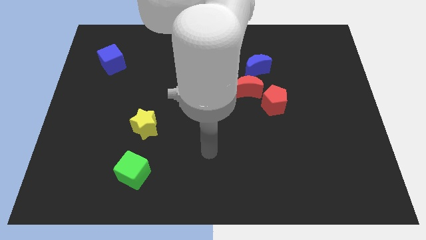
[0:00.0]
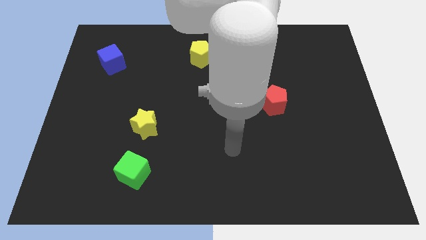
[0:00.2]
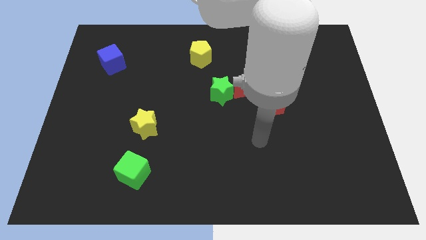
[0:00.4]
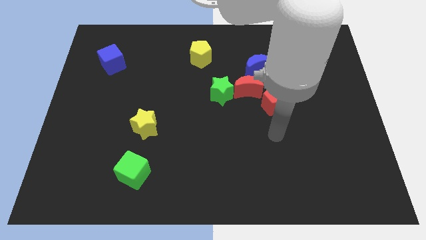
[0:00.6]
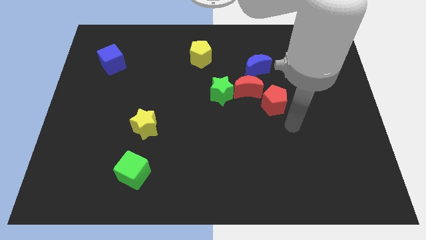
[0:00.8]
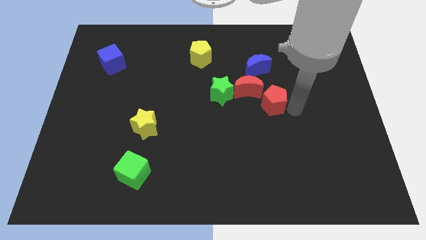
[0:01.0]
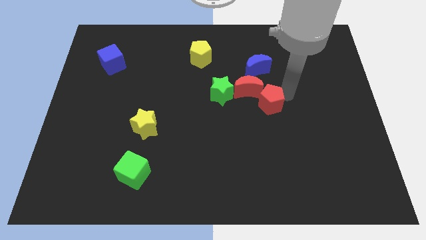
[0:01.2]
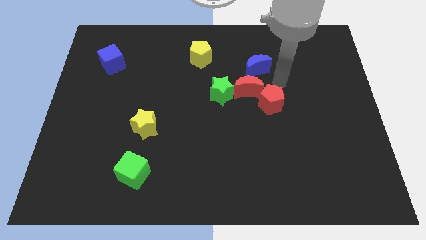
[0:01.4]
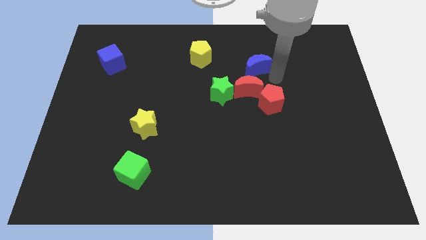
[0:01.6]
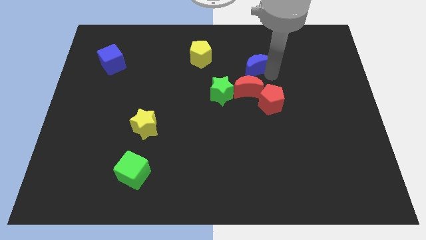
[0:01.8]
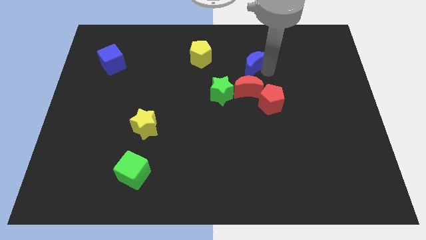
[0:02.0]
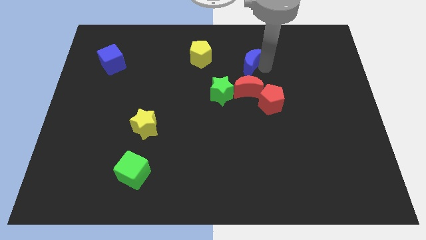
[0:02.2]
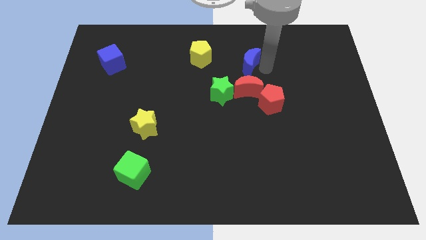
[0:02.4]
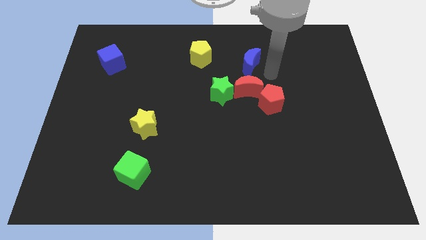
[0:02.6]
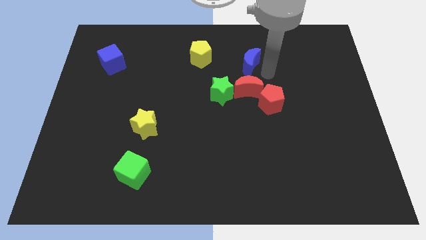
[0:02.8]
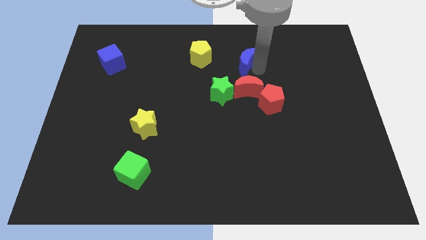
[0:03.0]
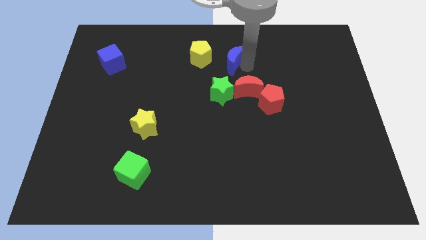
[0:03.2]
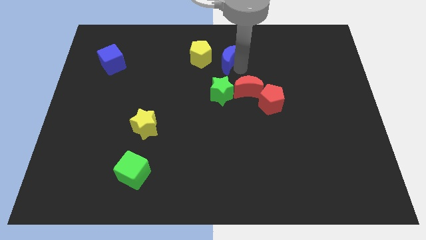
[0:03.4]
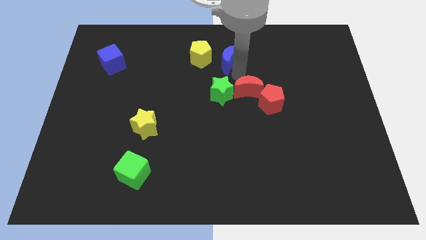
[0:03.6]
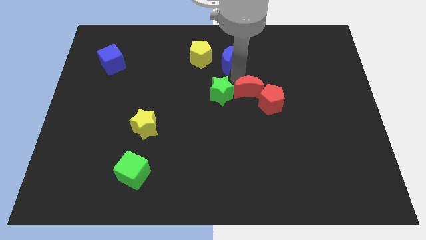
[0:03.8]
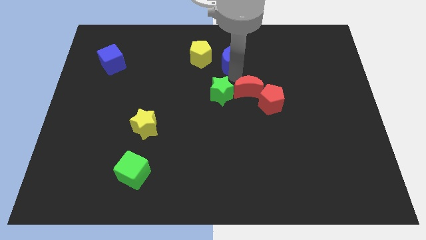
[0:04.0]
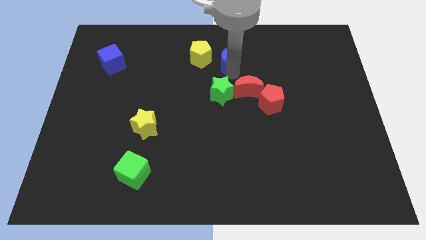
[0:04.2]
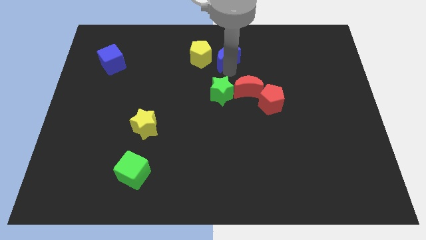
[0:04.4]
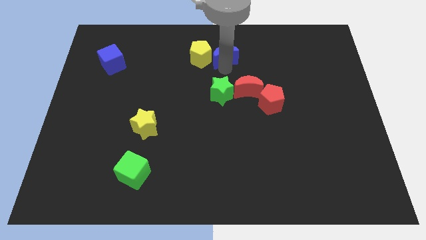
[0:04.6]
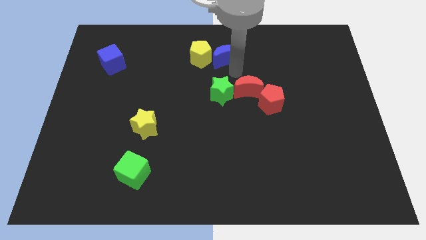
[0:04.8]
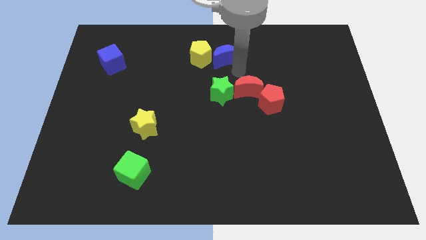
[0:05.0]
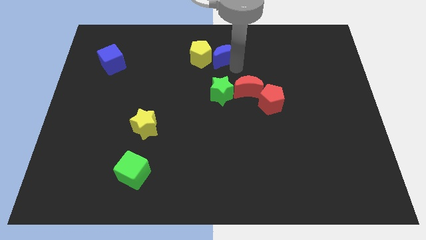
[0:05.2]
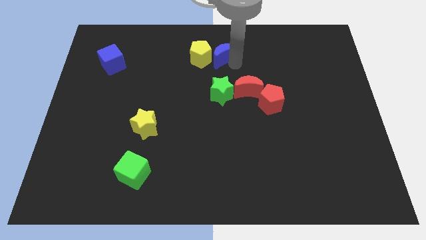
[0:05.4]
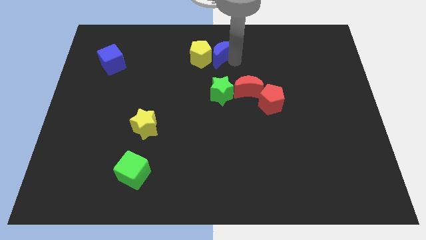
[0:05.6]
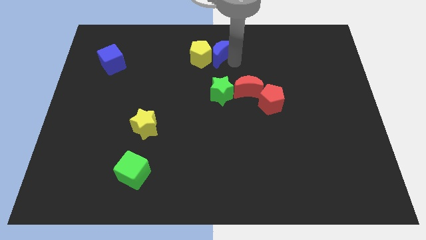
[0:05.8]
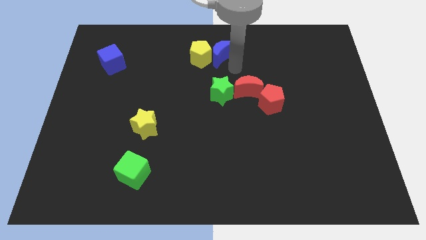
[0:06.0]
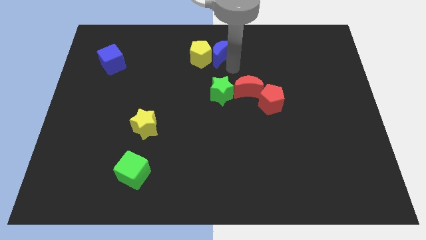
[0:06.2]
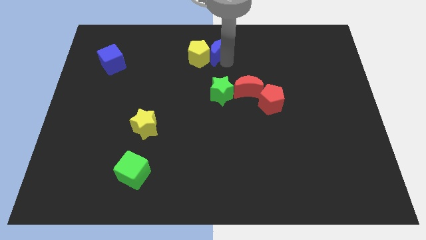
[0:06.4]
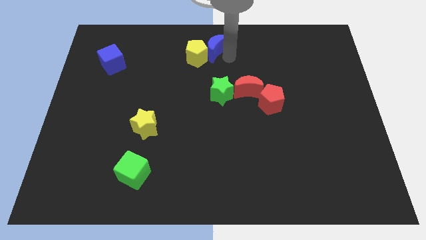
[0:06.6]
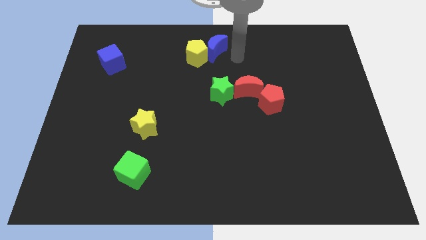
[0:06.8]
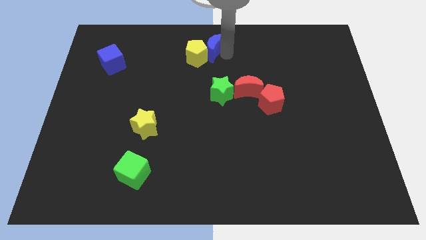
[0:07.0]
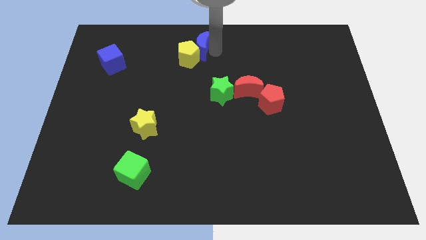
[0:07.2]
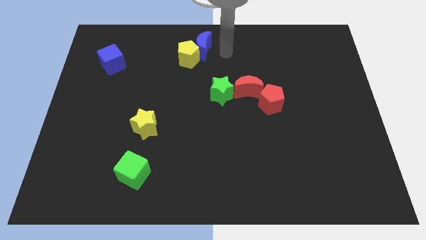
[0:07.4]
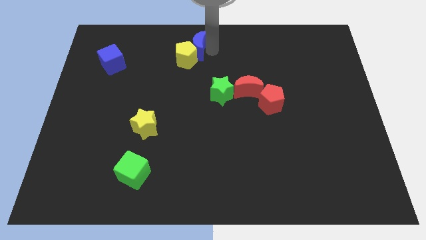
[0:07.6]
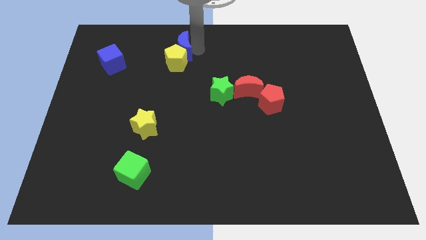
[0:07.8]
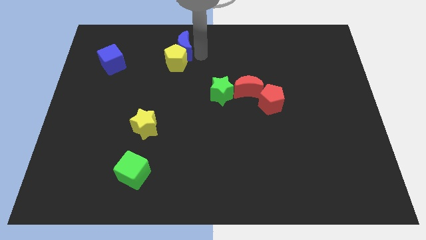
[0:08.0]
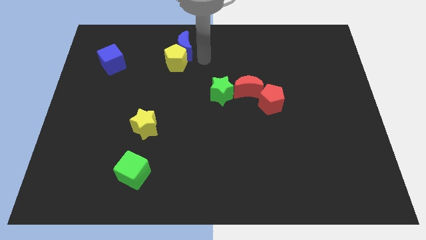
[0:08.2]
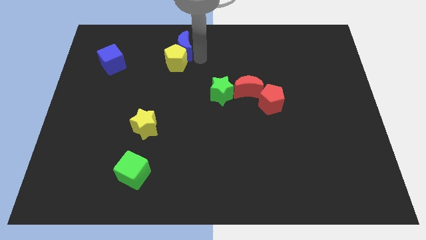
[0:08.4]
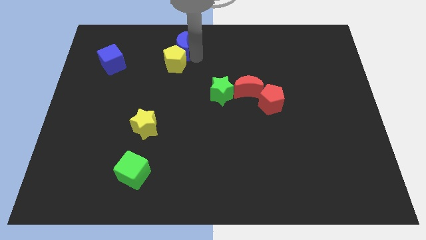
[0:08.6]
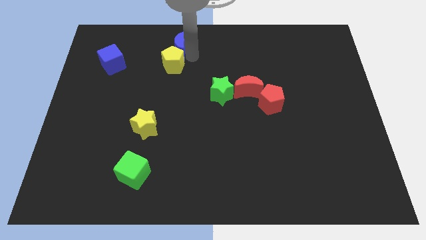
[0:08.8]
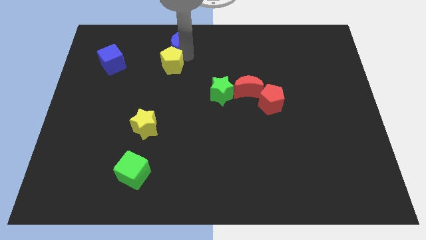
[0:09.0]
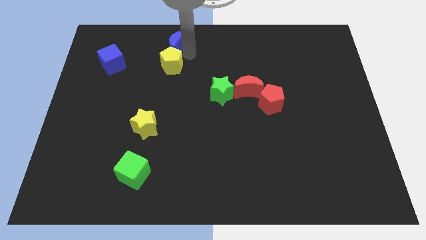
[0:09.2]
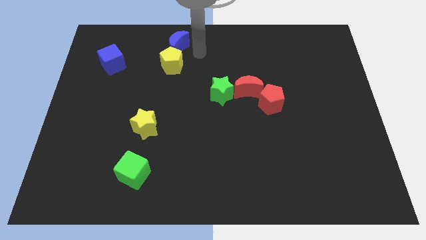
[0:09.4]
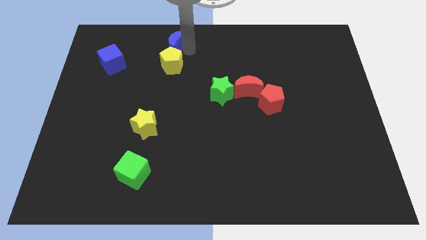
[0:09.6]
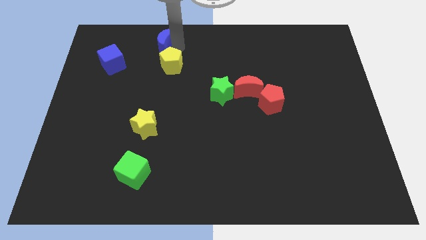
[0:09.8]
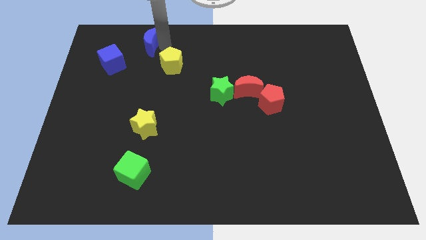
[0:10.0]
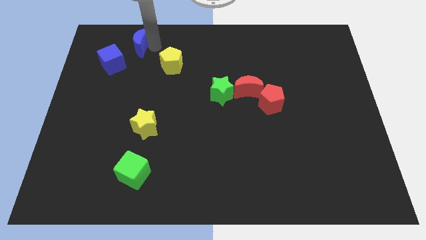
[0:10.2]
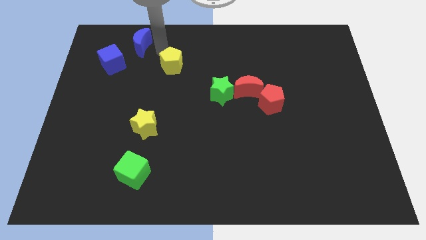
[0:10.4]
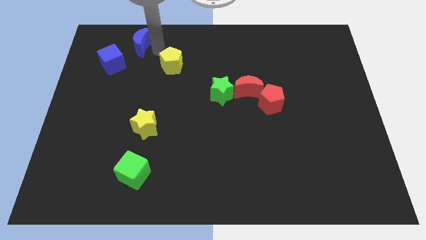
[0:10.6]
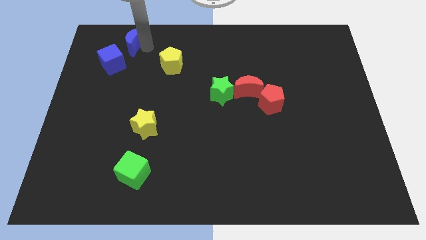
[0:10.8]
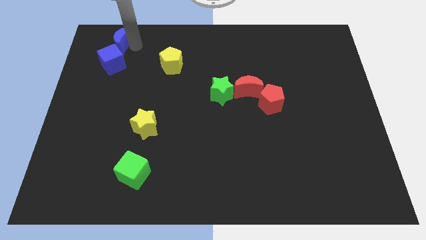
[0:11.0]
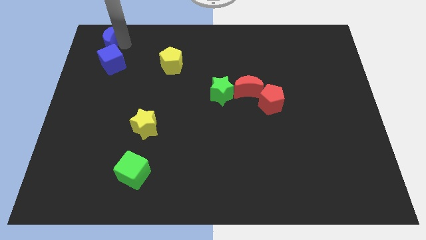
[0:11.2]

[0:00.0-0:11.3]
slide the blue moon to the top left

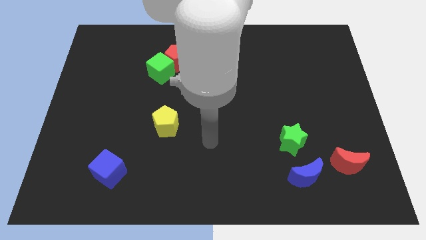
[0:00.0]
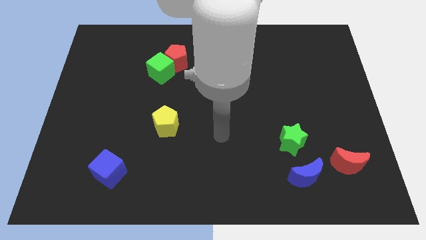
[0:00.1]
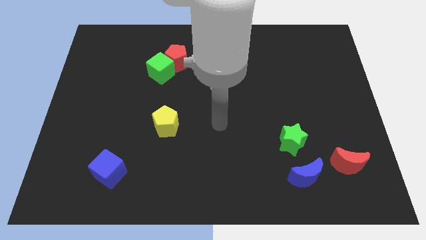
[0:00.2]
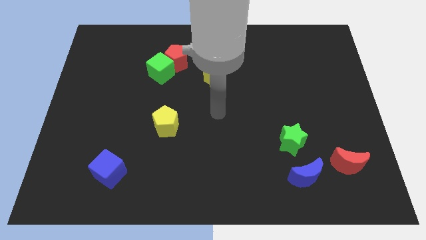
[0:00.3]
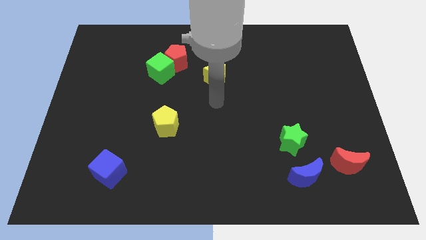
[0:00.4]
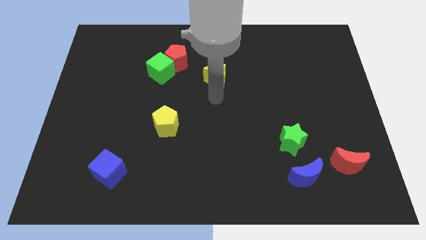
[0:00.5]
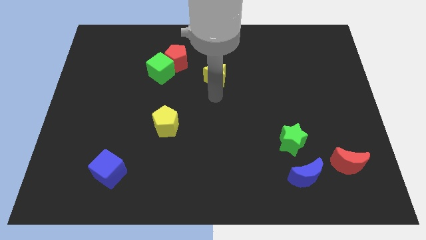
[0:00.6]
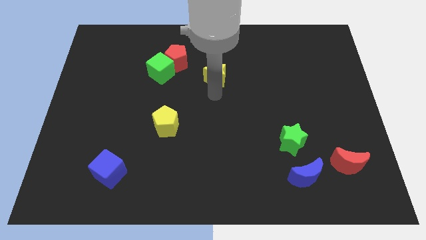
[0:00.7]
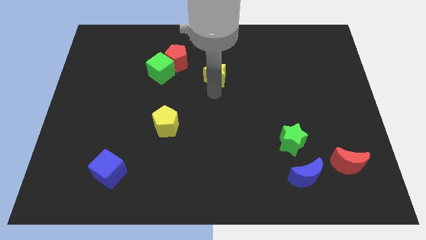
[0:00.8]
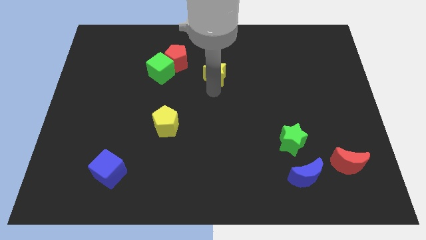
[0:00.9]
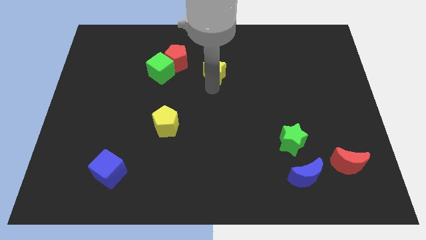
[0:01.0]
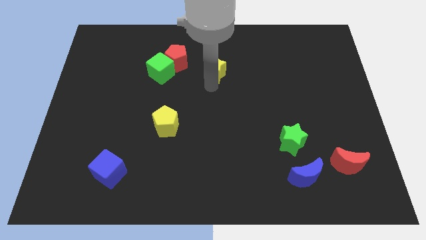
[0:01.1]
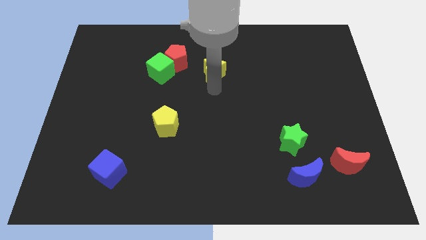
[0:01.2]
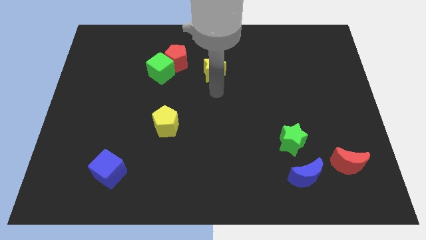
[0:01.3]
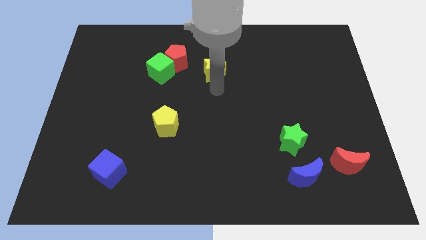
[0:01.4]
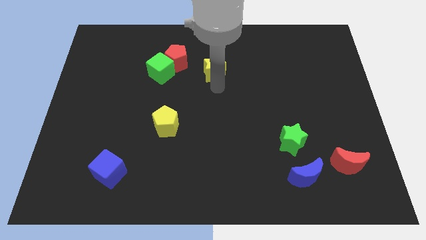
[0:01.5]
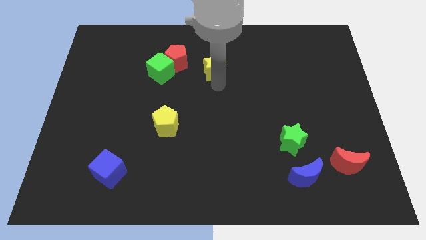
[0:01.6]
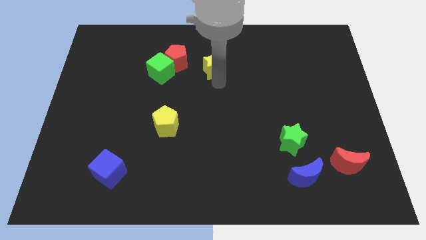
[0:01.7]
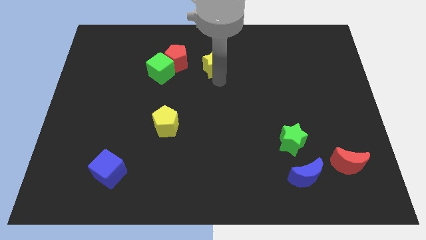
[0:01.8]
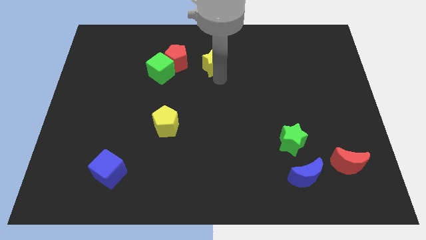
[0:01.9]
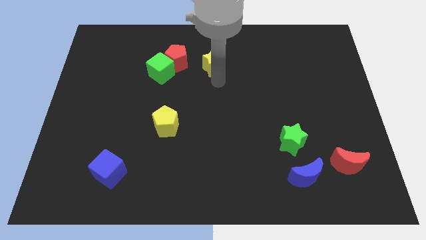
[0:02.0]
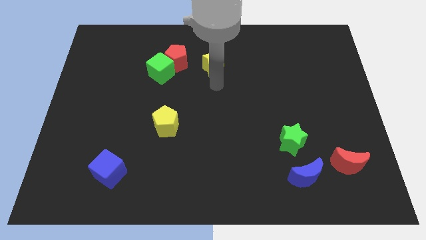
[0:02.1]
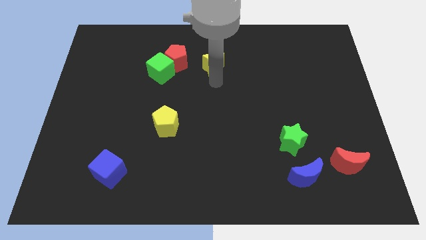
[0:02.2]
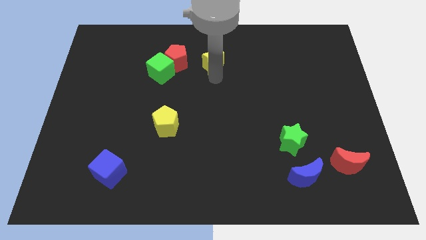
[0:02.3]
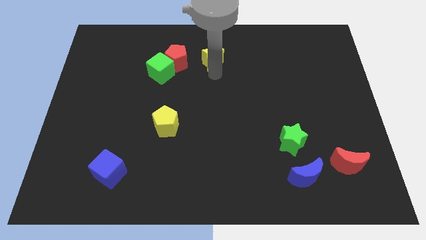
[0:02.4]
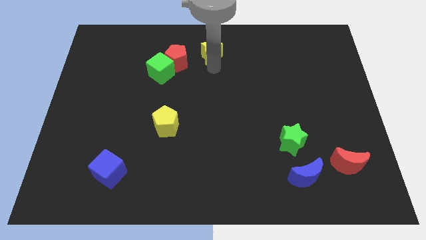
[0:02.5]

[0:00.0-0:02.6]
slide the yellow star to the top
